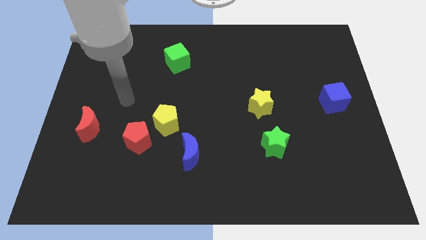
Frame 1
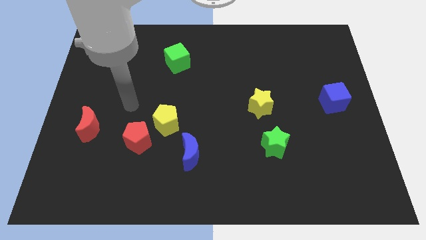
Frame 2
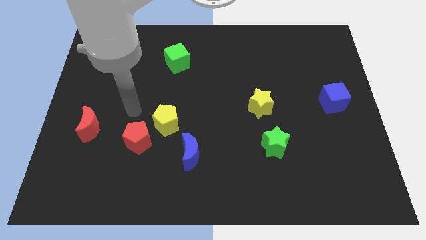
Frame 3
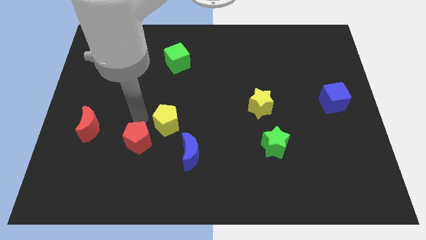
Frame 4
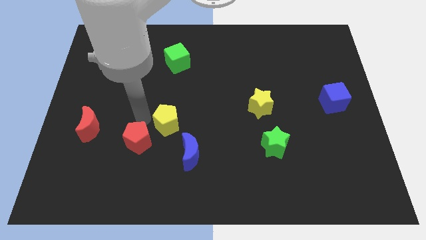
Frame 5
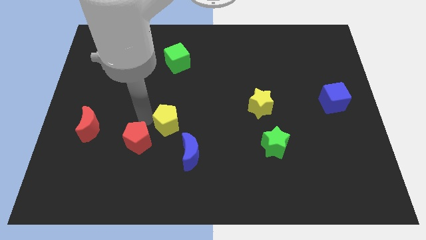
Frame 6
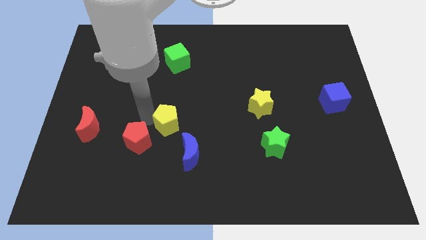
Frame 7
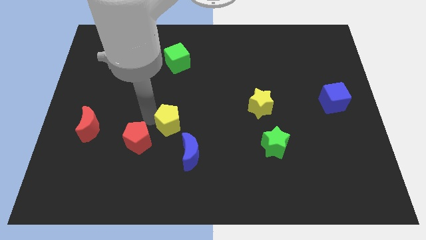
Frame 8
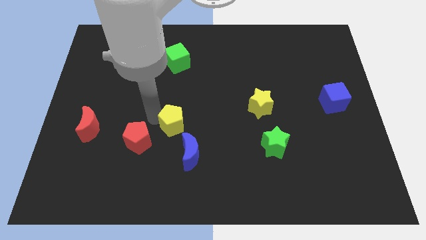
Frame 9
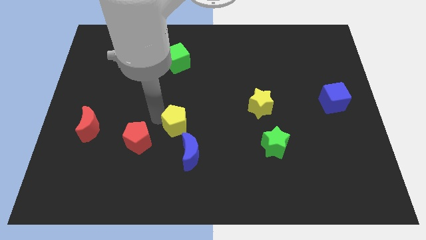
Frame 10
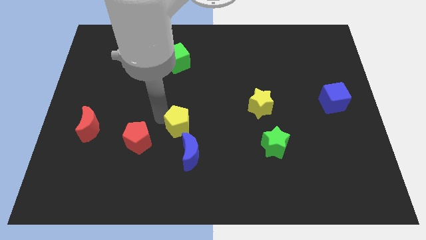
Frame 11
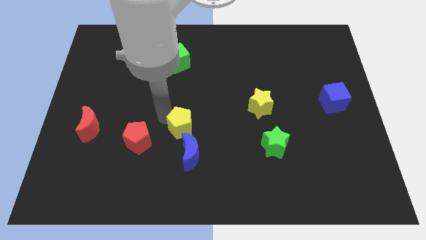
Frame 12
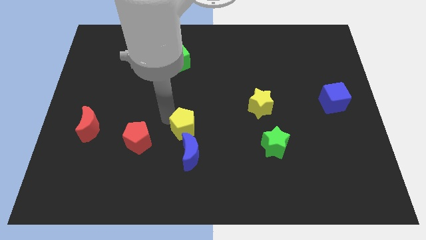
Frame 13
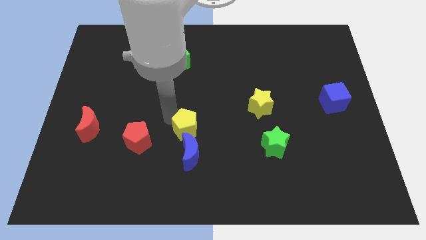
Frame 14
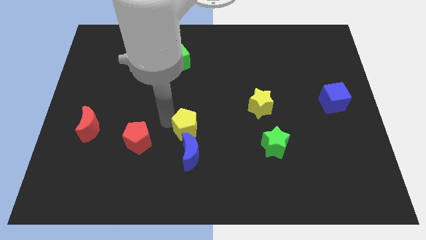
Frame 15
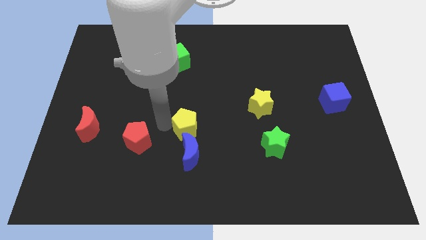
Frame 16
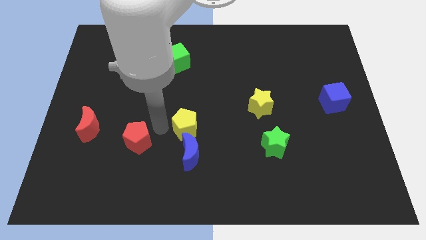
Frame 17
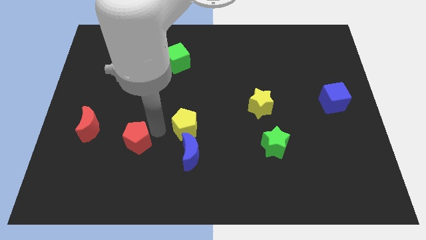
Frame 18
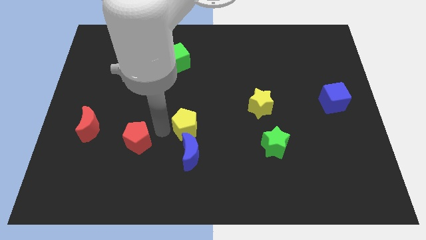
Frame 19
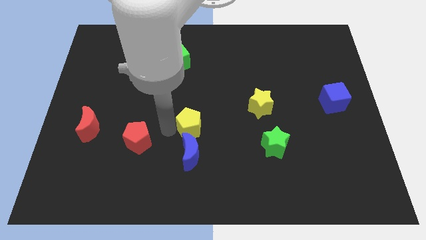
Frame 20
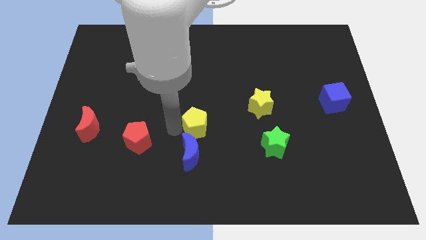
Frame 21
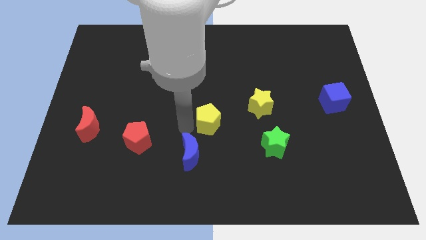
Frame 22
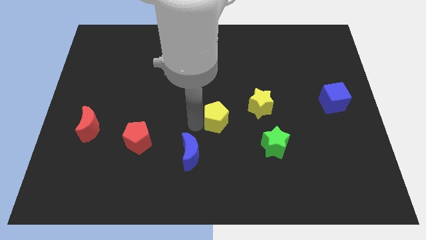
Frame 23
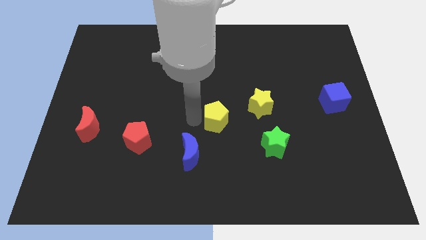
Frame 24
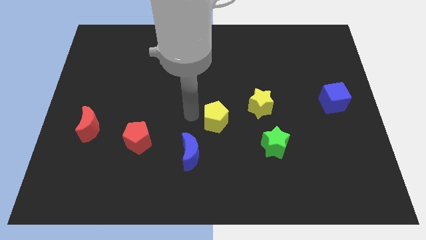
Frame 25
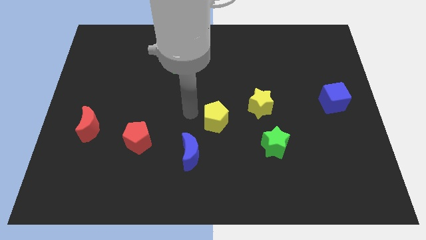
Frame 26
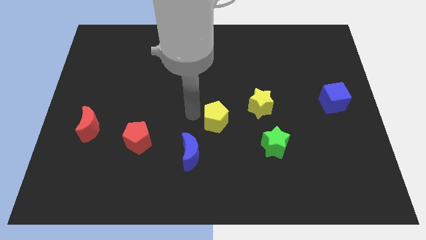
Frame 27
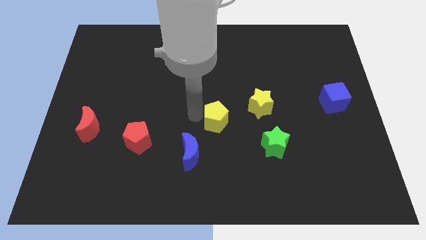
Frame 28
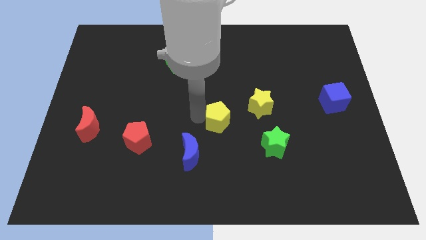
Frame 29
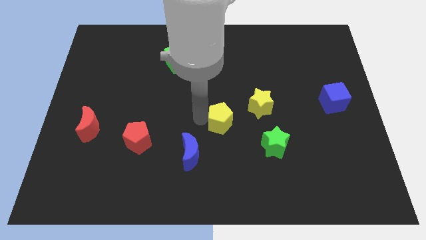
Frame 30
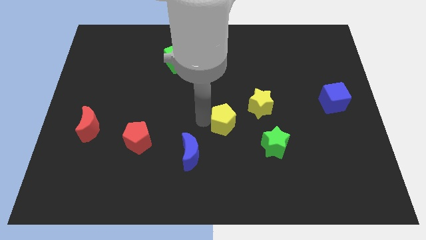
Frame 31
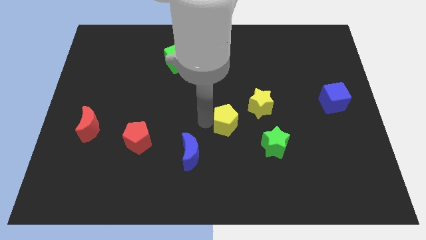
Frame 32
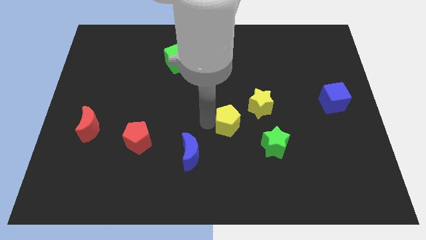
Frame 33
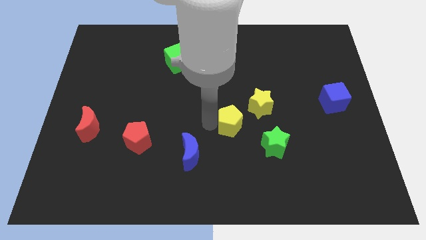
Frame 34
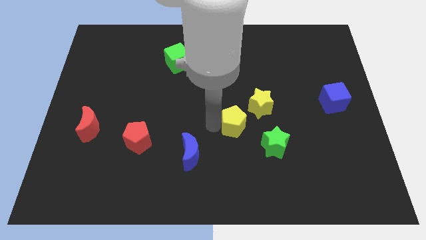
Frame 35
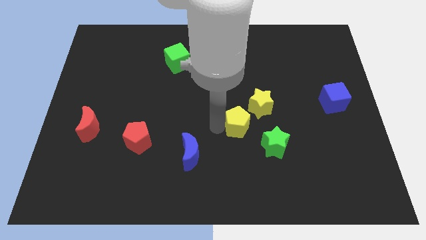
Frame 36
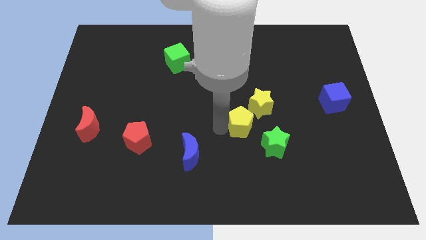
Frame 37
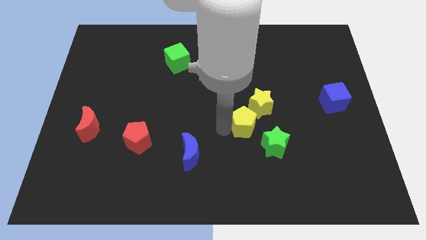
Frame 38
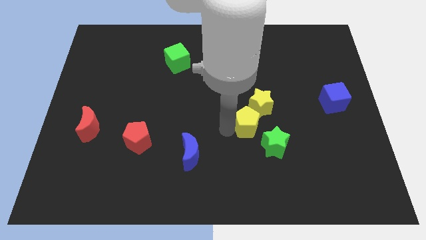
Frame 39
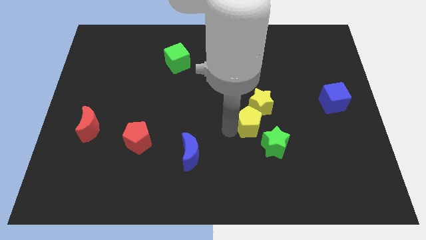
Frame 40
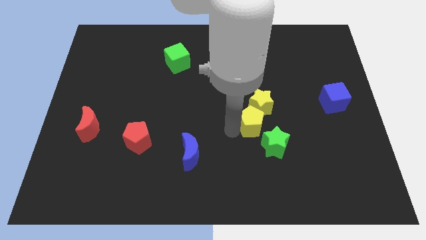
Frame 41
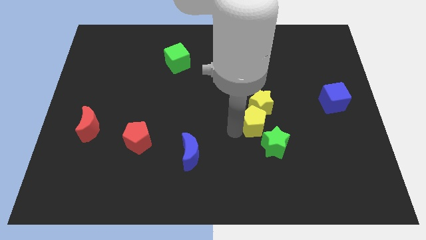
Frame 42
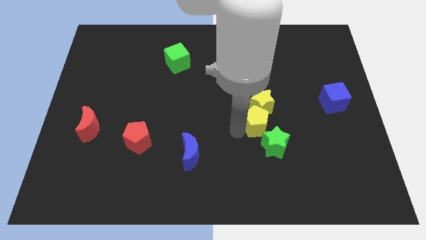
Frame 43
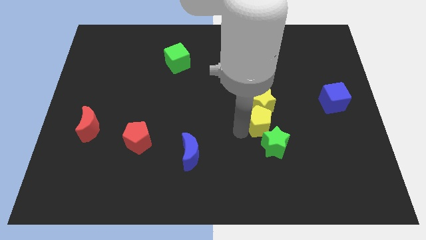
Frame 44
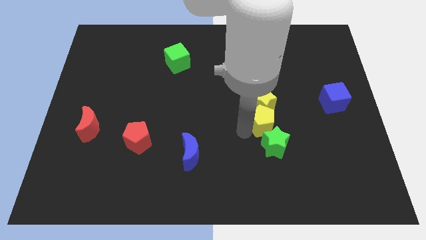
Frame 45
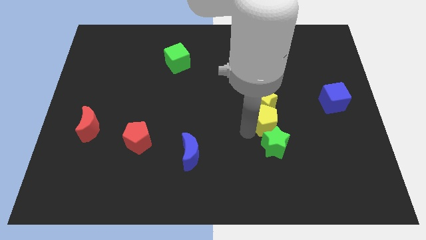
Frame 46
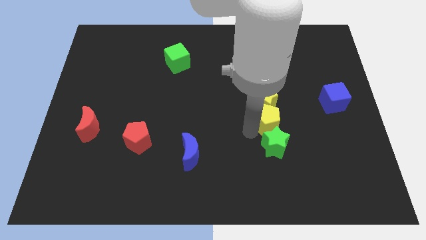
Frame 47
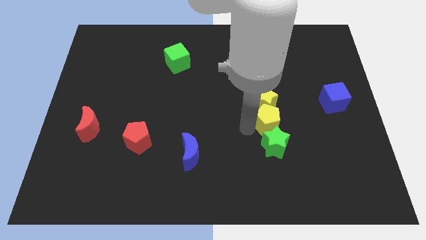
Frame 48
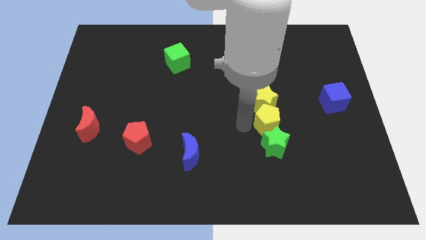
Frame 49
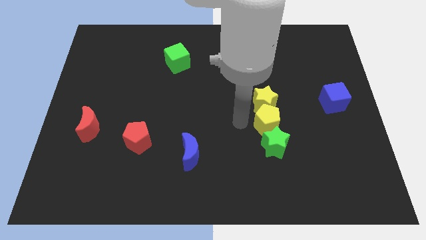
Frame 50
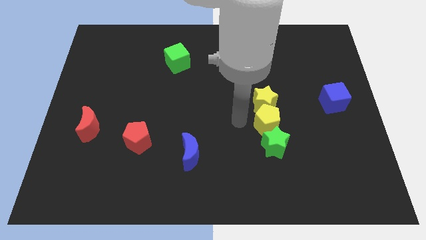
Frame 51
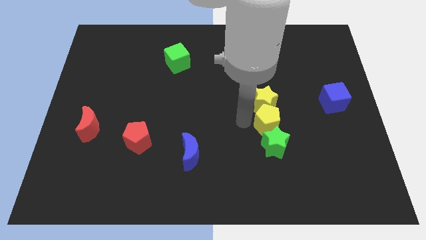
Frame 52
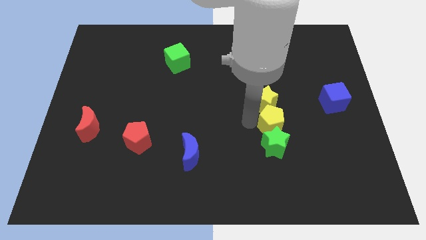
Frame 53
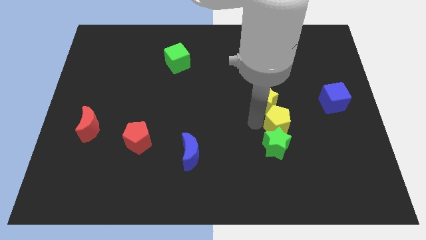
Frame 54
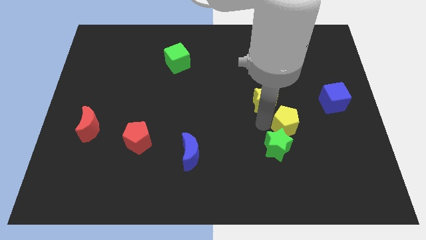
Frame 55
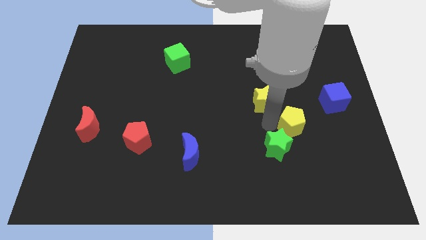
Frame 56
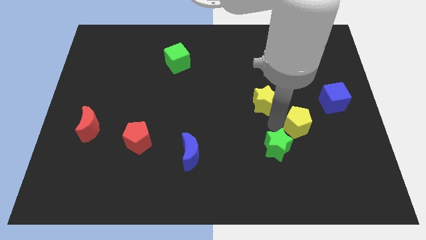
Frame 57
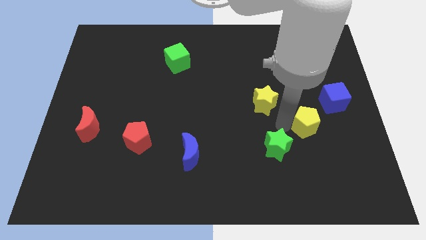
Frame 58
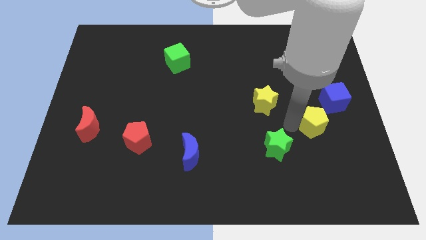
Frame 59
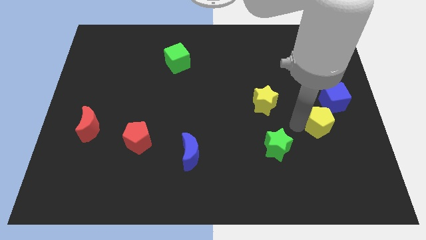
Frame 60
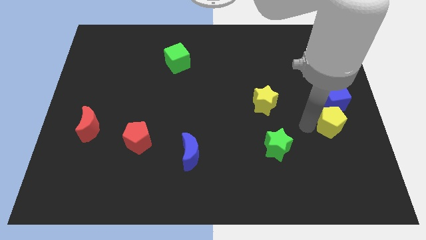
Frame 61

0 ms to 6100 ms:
slide the yellow pentagon to the center right

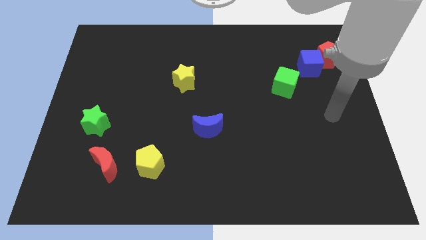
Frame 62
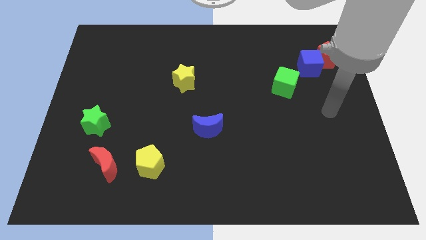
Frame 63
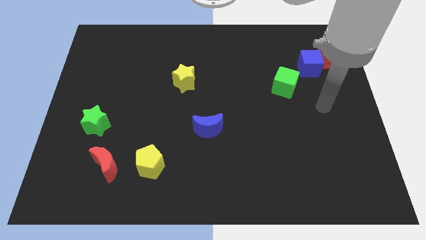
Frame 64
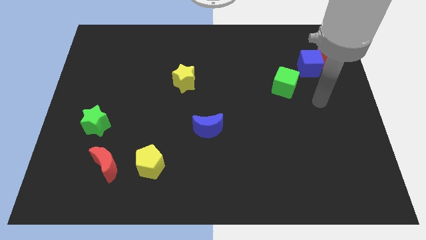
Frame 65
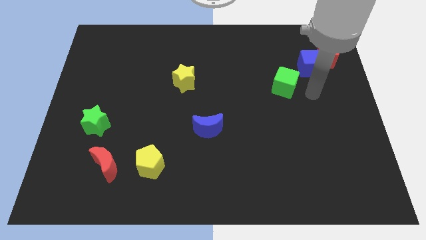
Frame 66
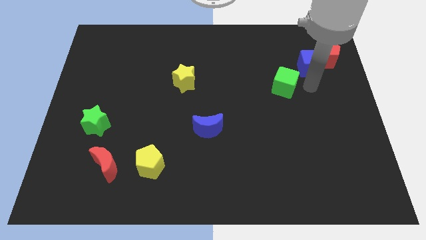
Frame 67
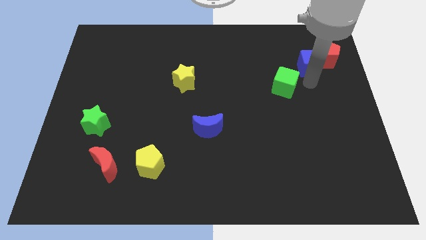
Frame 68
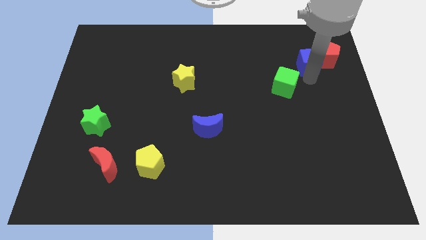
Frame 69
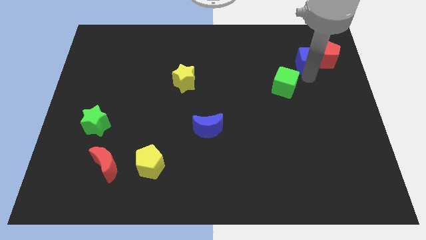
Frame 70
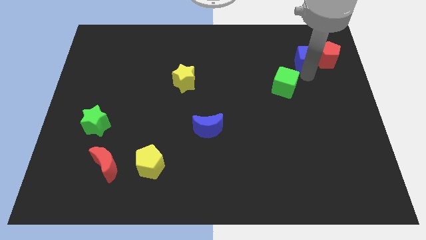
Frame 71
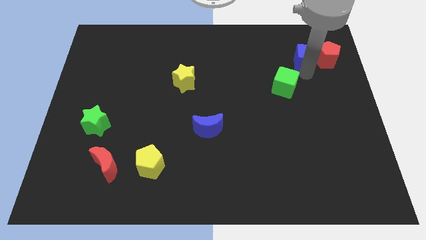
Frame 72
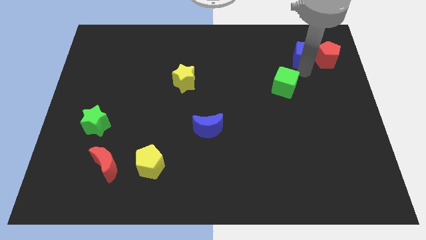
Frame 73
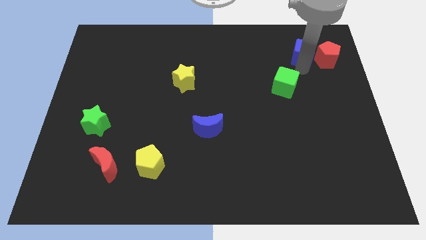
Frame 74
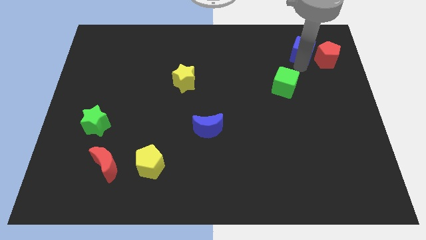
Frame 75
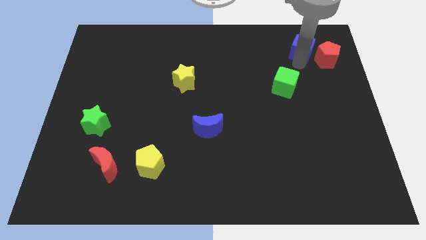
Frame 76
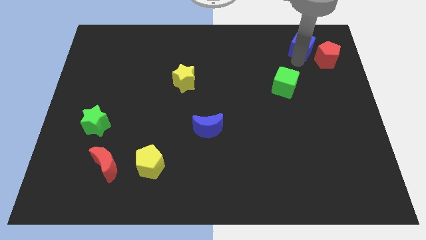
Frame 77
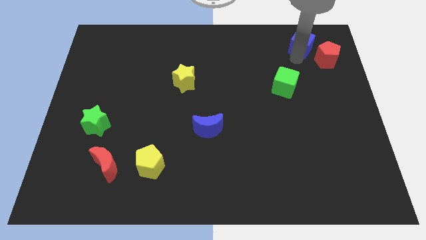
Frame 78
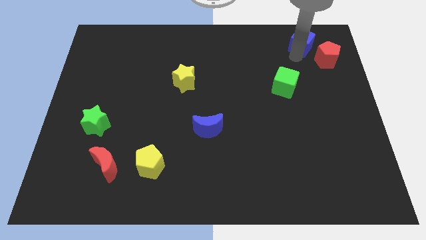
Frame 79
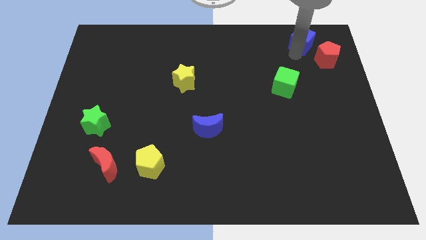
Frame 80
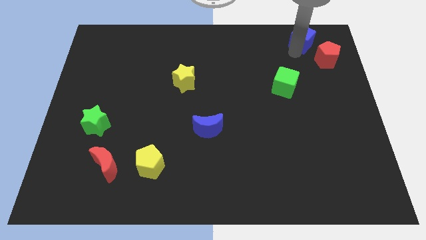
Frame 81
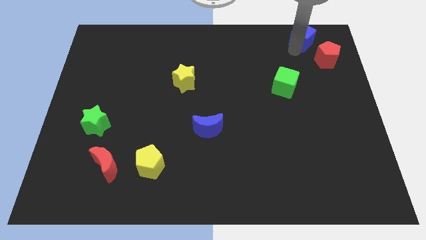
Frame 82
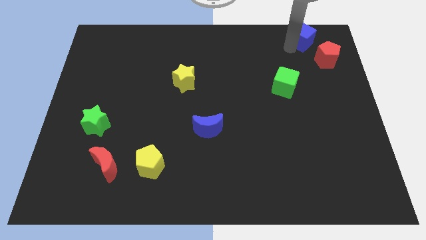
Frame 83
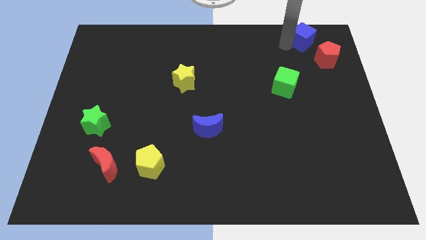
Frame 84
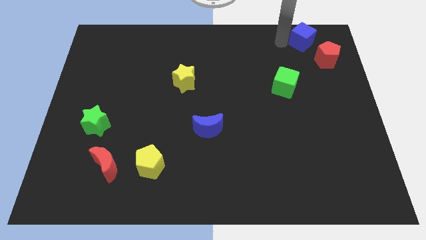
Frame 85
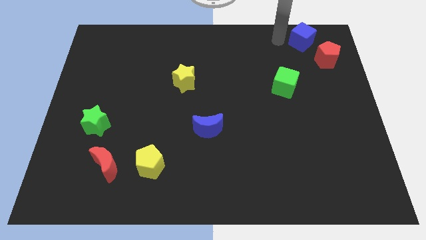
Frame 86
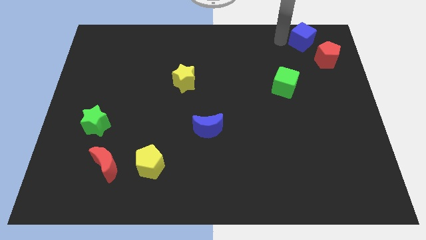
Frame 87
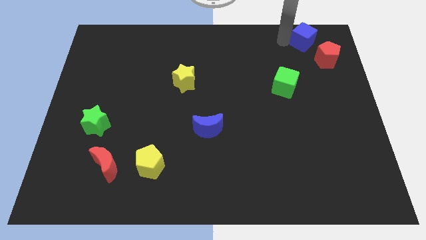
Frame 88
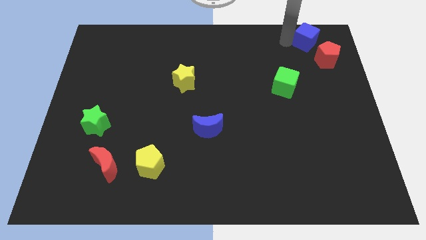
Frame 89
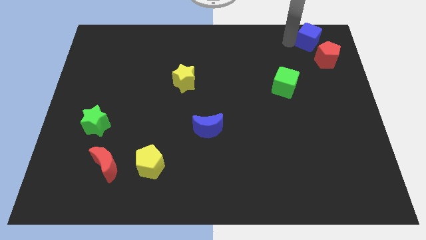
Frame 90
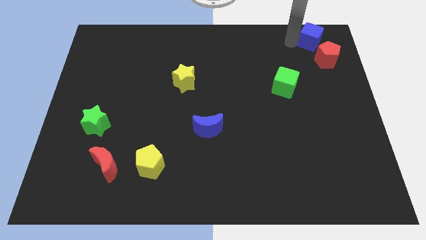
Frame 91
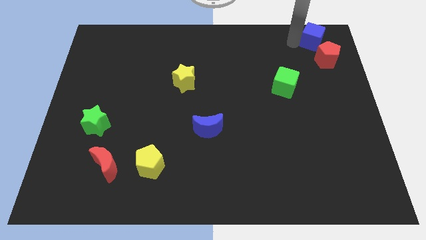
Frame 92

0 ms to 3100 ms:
slide the blue cube to the top right corner
